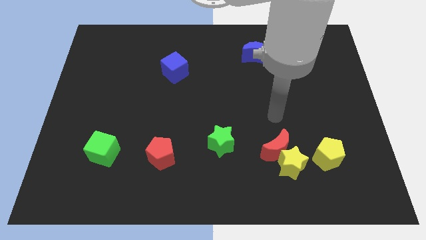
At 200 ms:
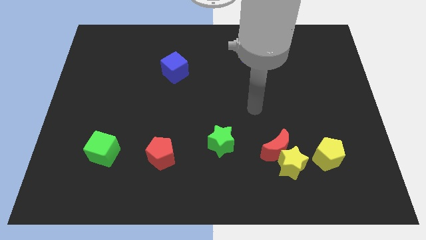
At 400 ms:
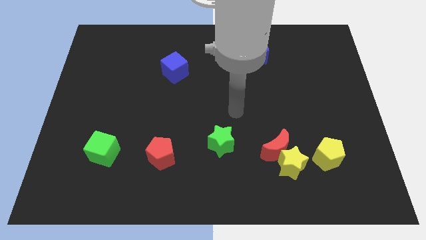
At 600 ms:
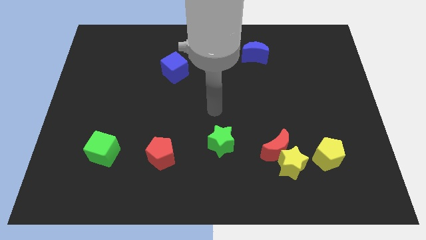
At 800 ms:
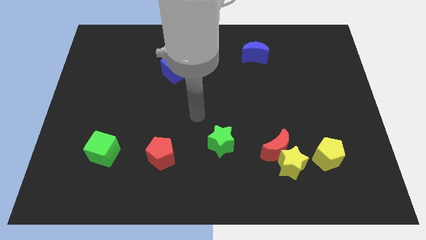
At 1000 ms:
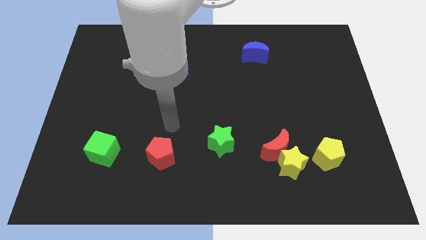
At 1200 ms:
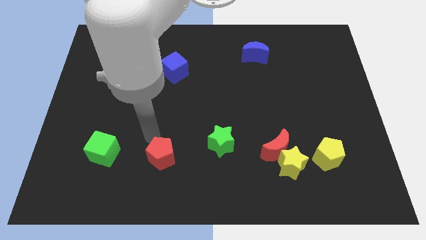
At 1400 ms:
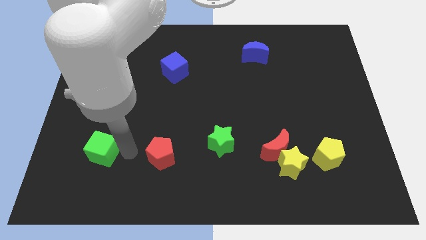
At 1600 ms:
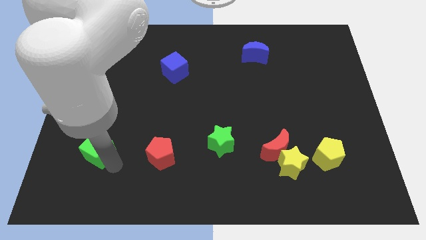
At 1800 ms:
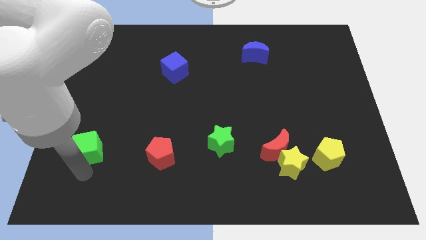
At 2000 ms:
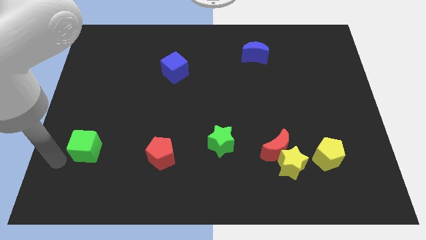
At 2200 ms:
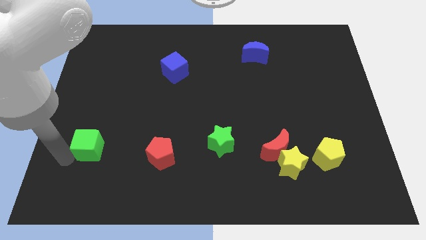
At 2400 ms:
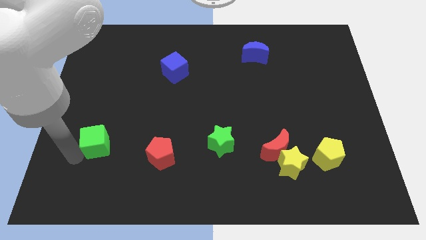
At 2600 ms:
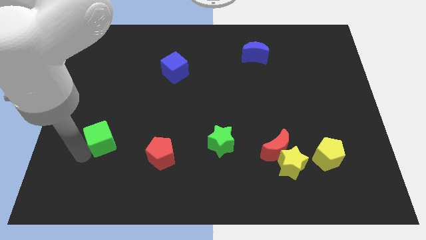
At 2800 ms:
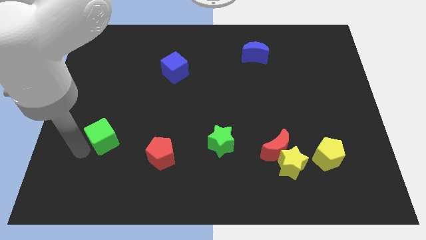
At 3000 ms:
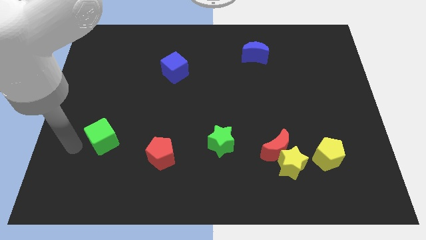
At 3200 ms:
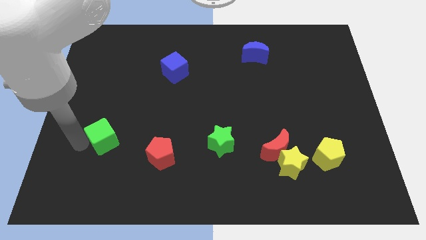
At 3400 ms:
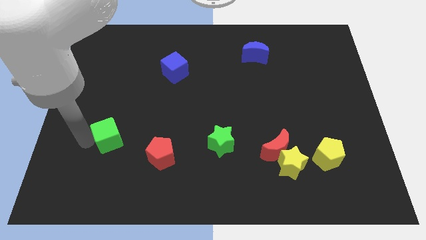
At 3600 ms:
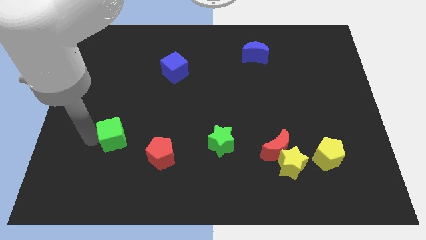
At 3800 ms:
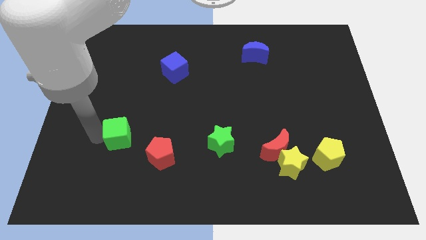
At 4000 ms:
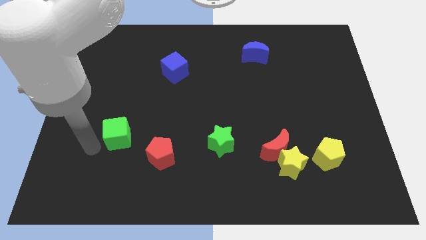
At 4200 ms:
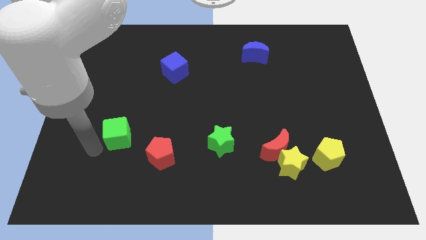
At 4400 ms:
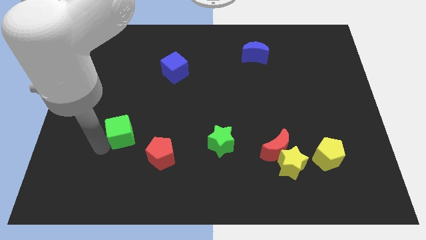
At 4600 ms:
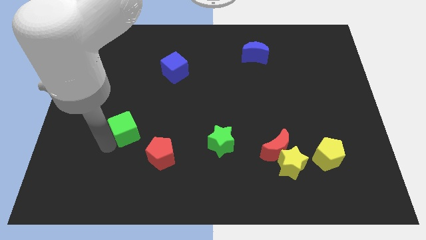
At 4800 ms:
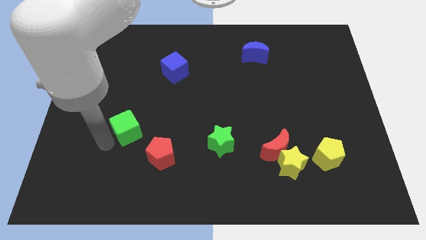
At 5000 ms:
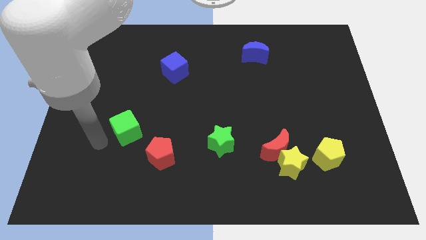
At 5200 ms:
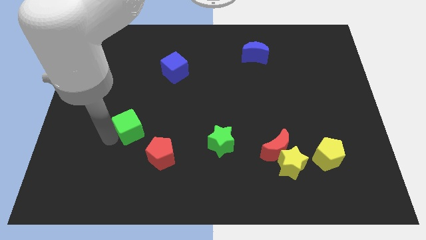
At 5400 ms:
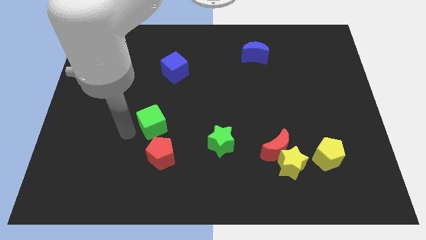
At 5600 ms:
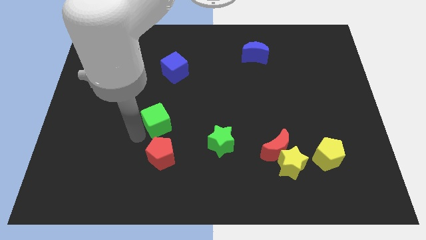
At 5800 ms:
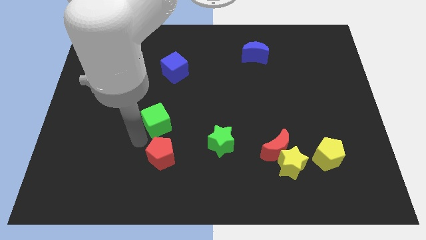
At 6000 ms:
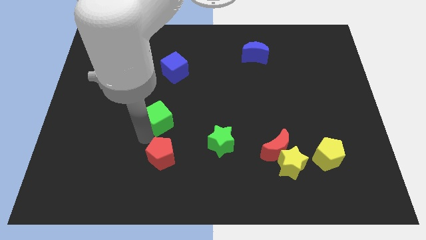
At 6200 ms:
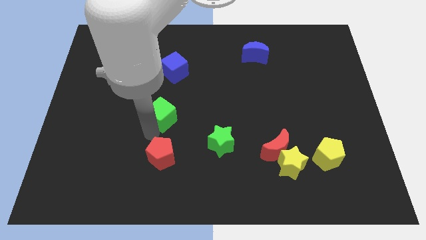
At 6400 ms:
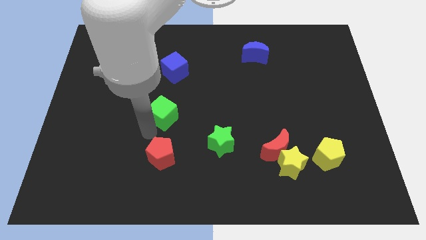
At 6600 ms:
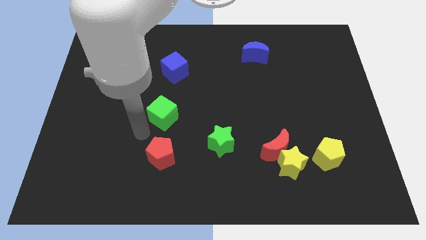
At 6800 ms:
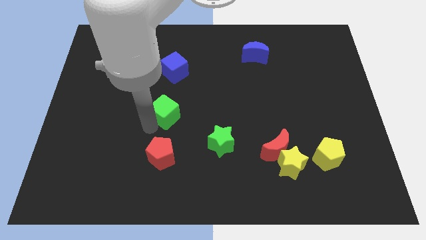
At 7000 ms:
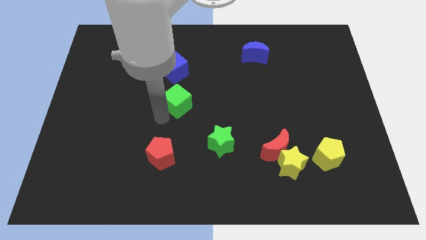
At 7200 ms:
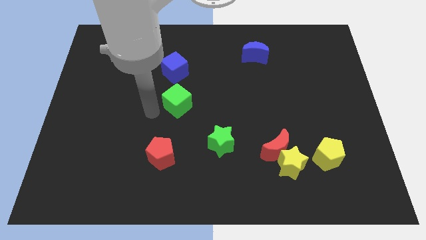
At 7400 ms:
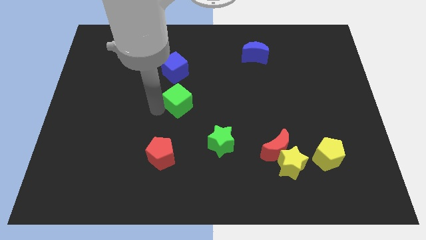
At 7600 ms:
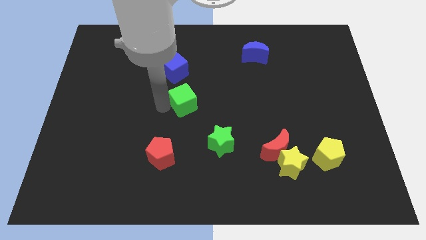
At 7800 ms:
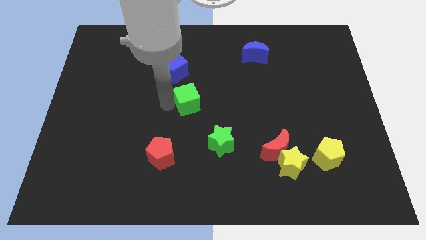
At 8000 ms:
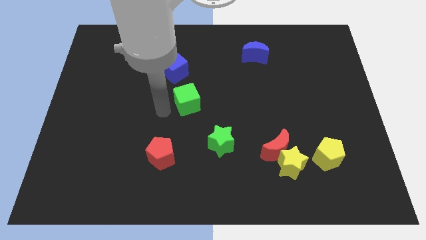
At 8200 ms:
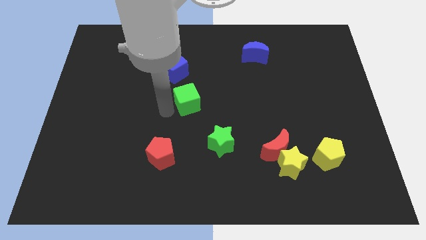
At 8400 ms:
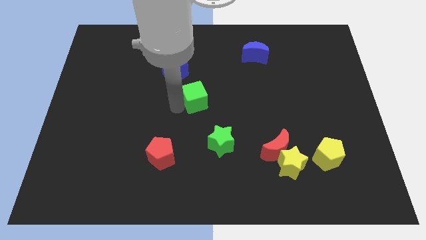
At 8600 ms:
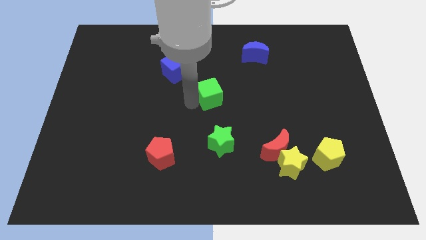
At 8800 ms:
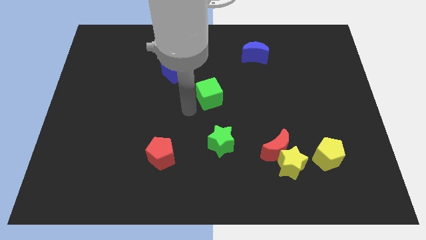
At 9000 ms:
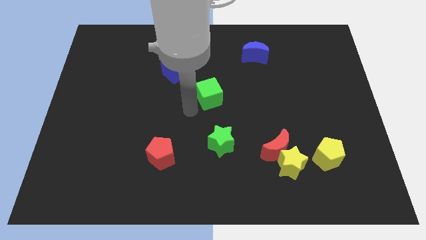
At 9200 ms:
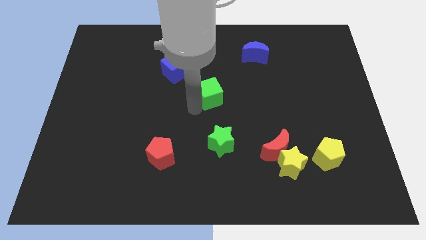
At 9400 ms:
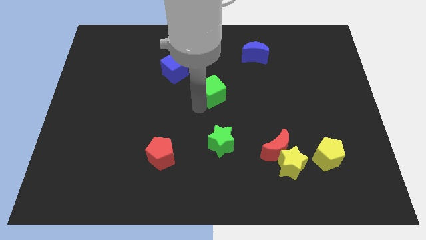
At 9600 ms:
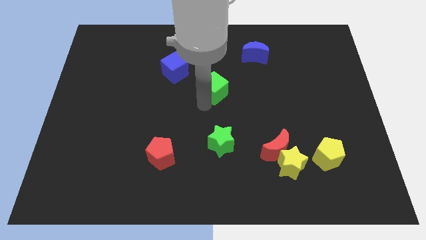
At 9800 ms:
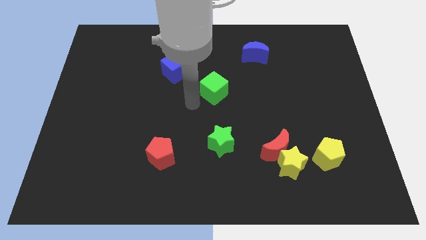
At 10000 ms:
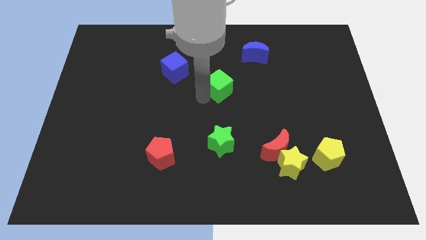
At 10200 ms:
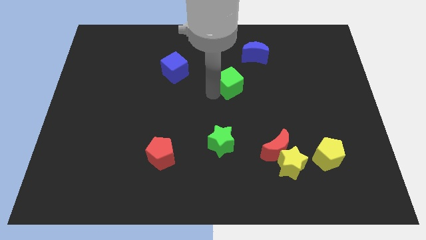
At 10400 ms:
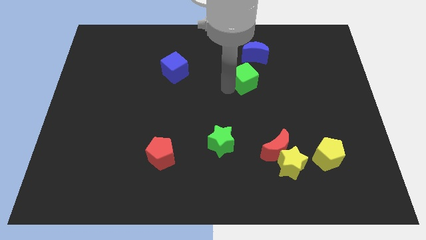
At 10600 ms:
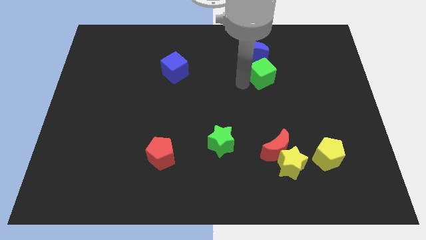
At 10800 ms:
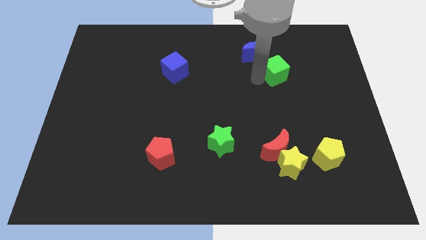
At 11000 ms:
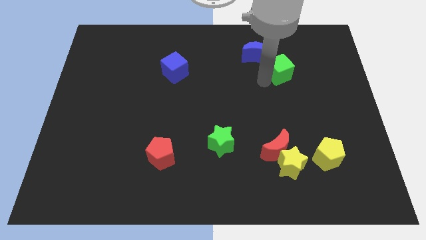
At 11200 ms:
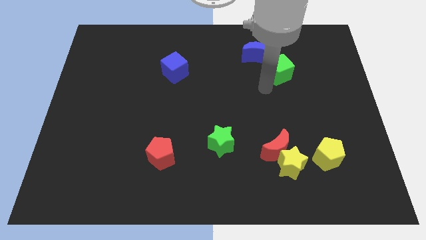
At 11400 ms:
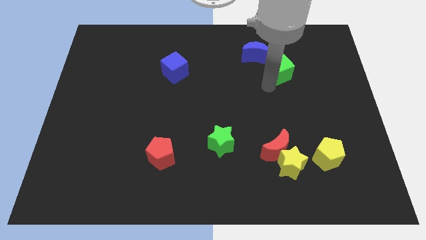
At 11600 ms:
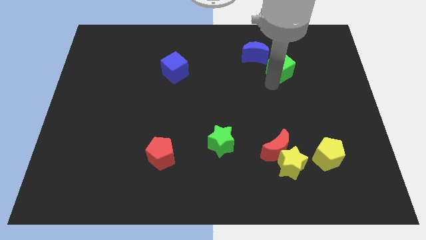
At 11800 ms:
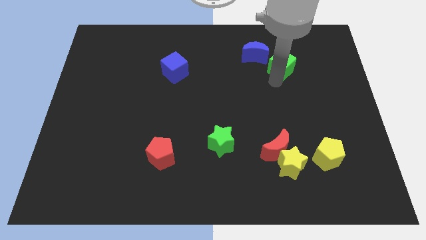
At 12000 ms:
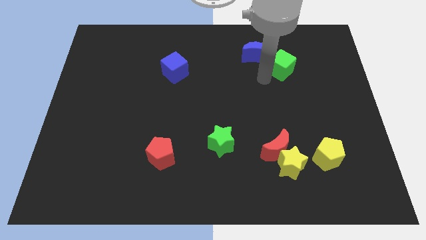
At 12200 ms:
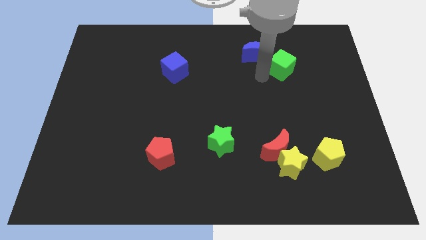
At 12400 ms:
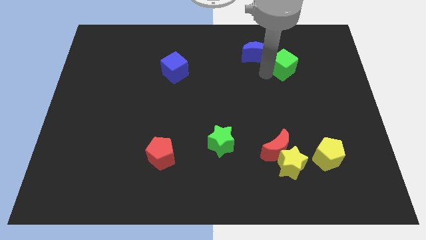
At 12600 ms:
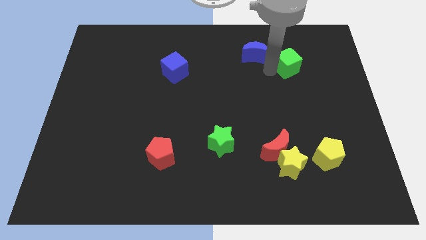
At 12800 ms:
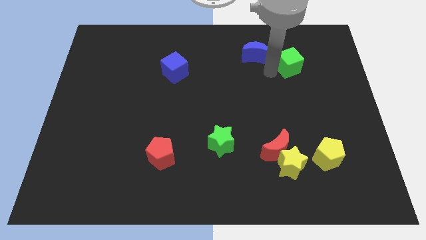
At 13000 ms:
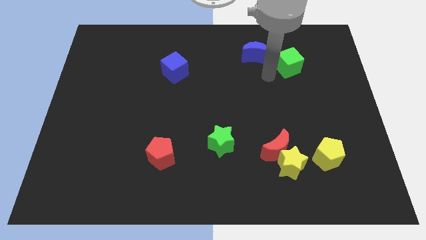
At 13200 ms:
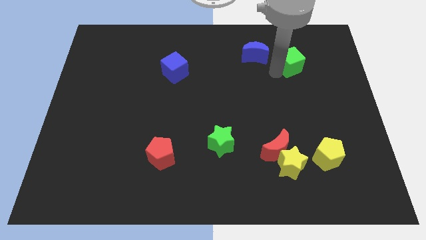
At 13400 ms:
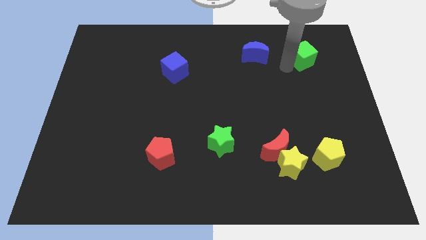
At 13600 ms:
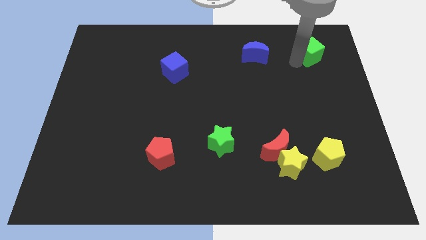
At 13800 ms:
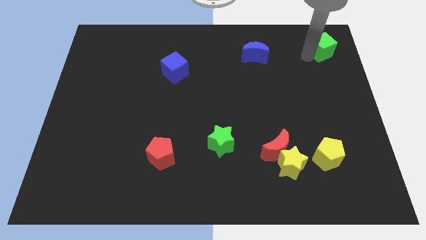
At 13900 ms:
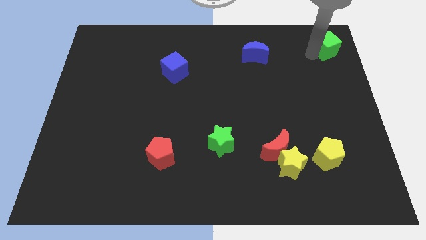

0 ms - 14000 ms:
push the green cube to the top right corner
